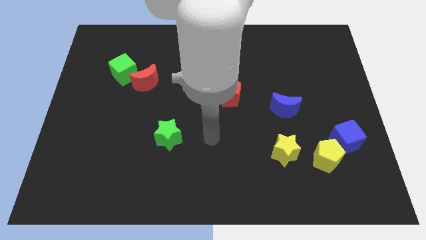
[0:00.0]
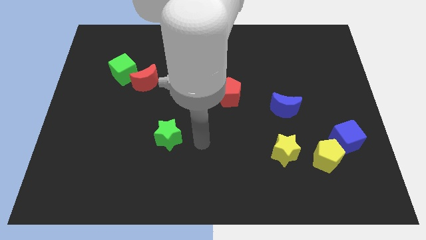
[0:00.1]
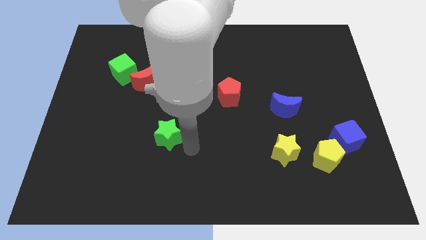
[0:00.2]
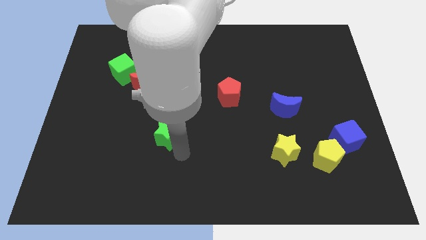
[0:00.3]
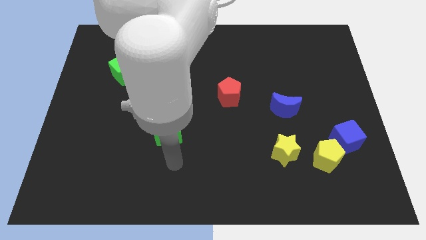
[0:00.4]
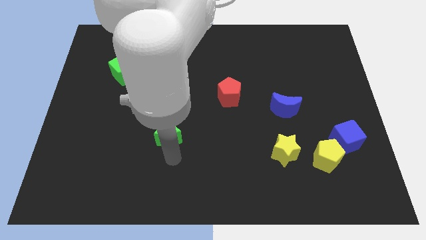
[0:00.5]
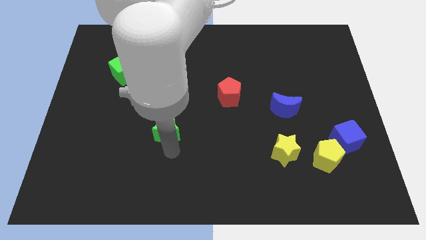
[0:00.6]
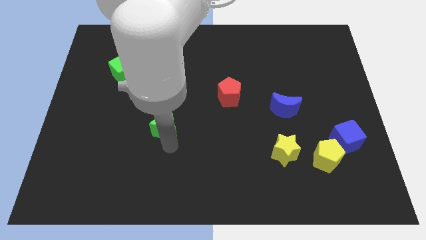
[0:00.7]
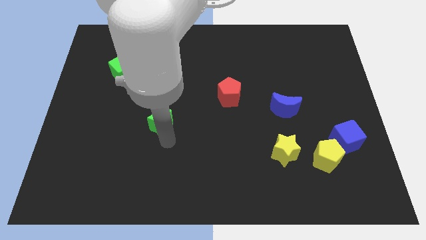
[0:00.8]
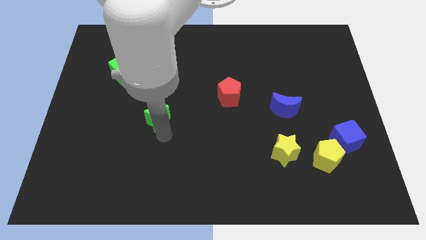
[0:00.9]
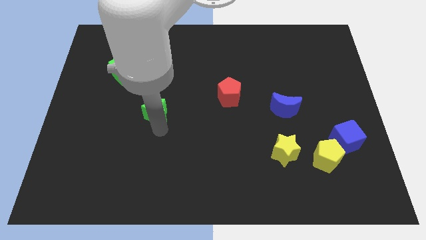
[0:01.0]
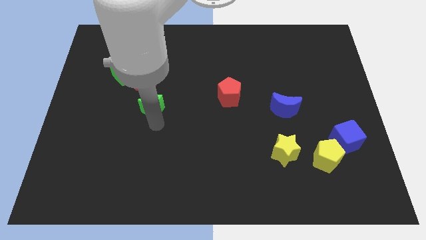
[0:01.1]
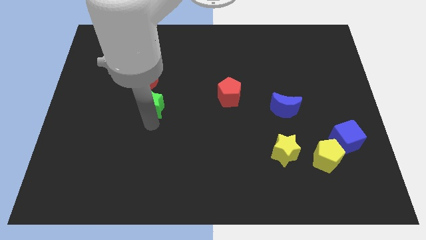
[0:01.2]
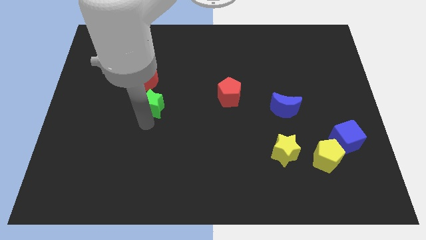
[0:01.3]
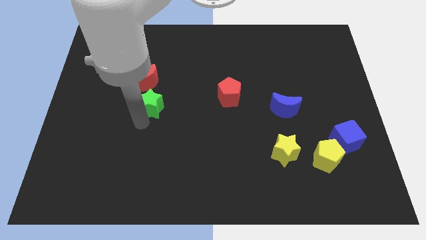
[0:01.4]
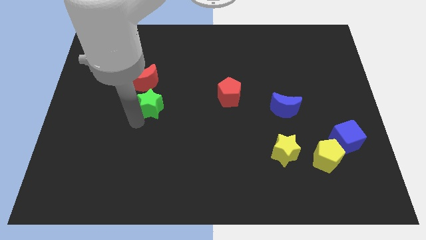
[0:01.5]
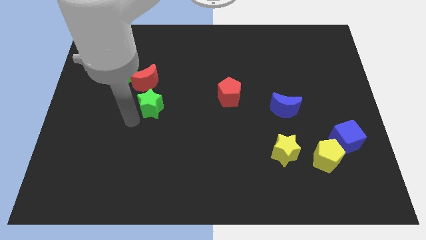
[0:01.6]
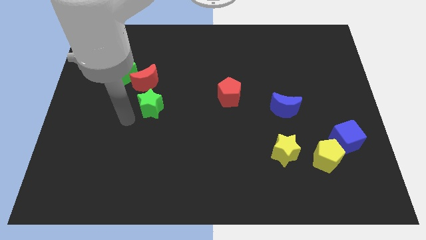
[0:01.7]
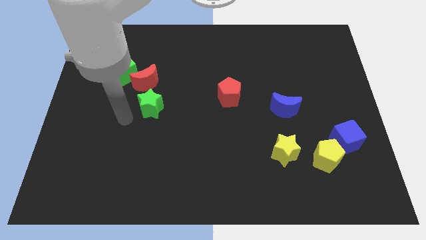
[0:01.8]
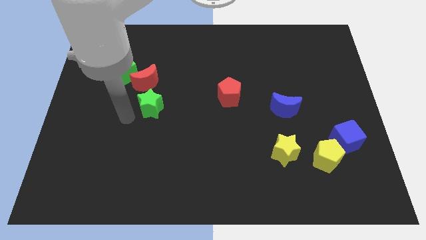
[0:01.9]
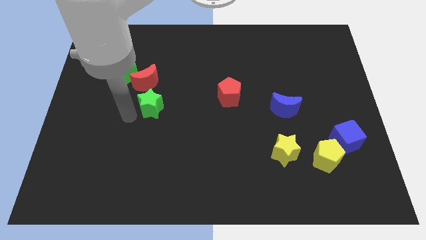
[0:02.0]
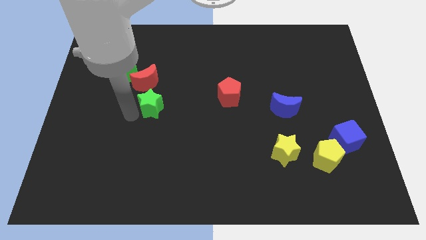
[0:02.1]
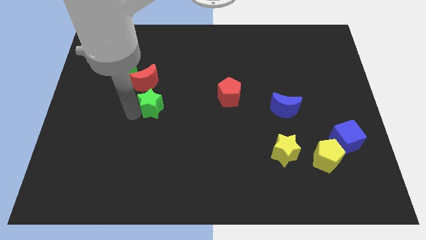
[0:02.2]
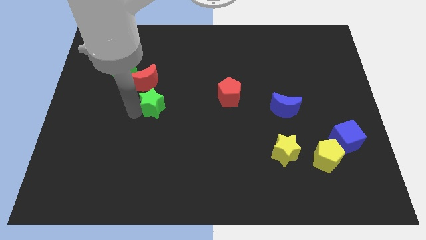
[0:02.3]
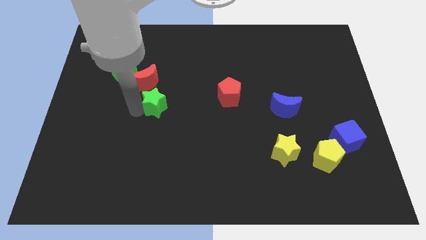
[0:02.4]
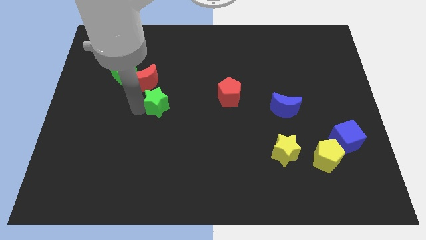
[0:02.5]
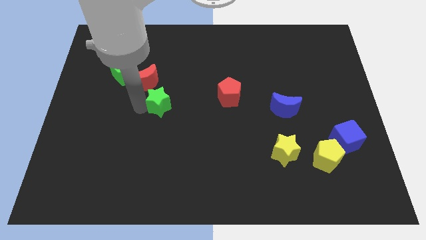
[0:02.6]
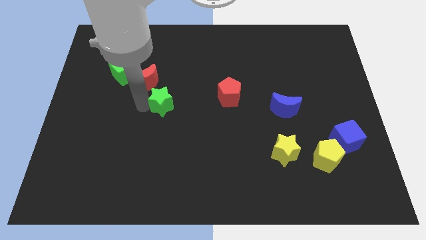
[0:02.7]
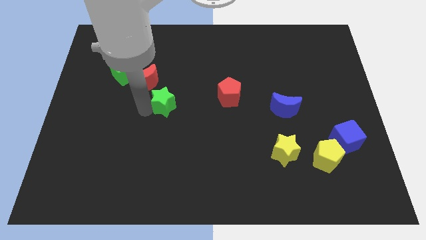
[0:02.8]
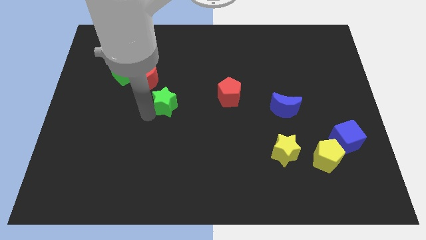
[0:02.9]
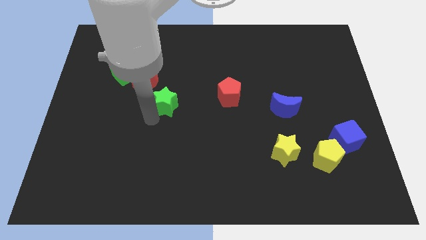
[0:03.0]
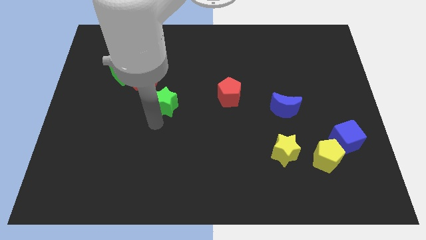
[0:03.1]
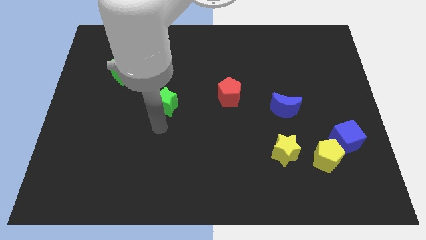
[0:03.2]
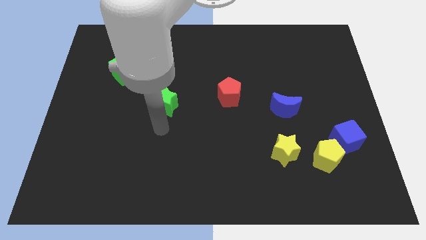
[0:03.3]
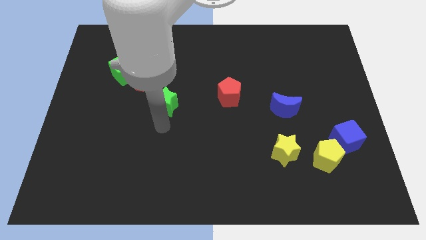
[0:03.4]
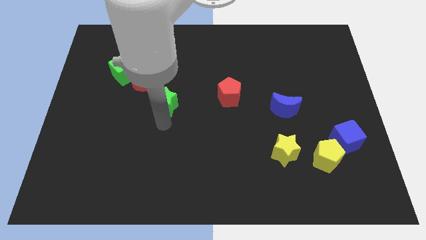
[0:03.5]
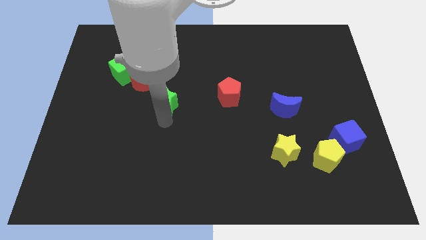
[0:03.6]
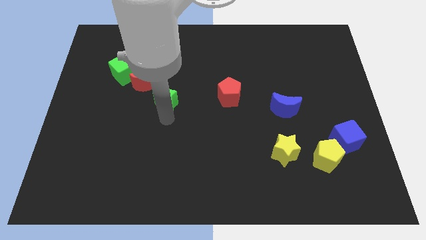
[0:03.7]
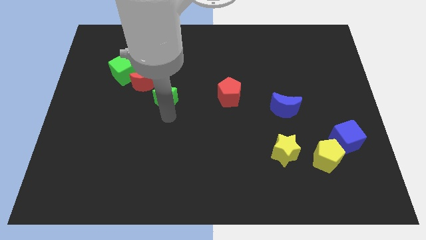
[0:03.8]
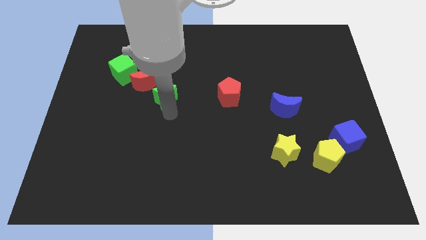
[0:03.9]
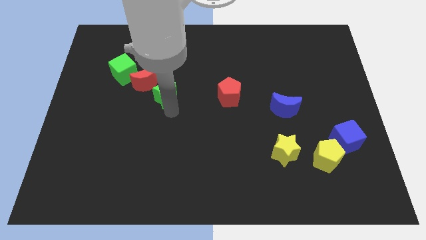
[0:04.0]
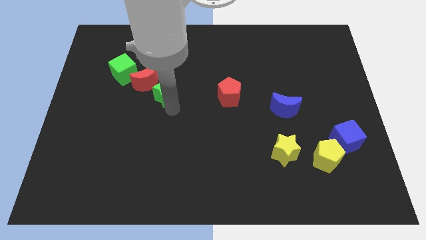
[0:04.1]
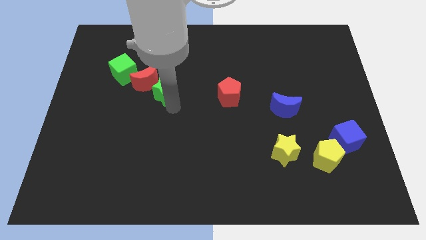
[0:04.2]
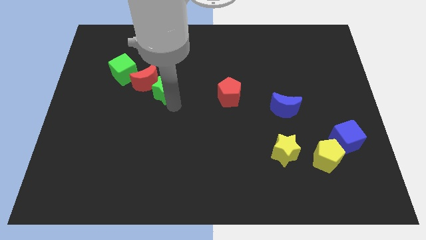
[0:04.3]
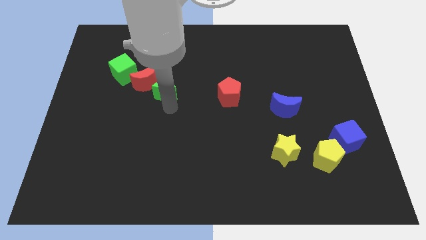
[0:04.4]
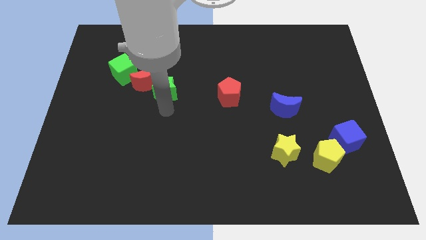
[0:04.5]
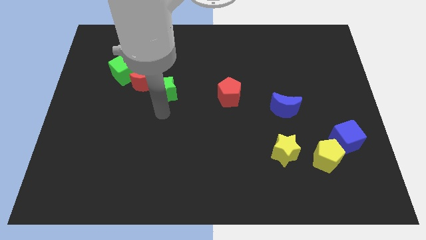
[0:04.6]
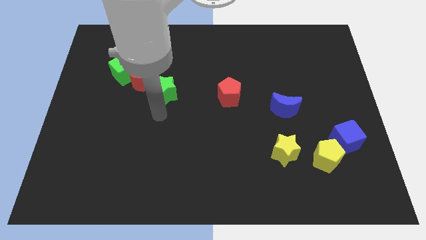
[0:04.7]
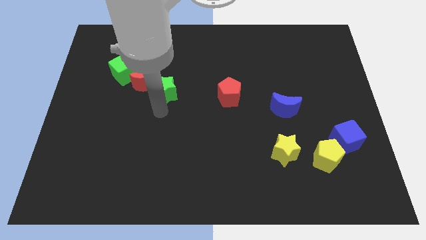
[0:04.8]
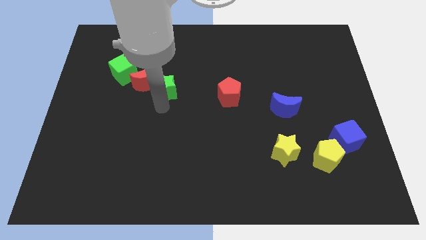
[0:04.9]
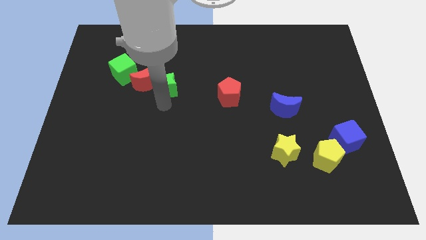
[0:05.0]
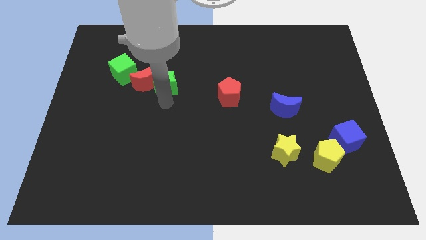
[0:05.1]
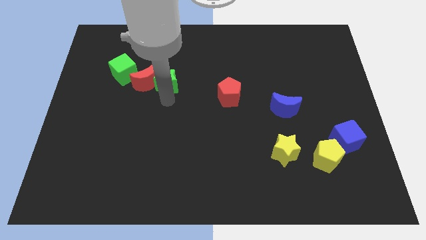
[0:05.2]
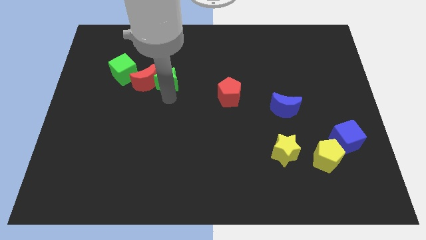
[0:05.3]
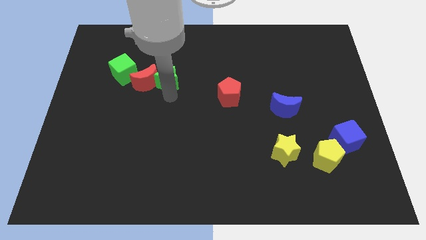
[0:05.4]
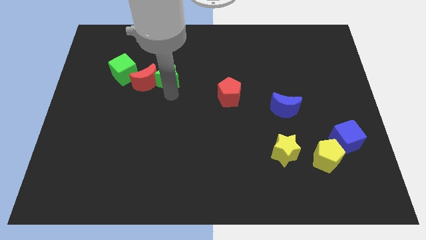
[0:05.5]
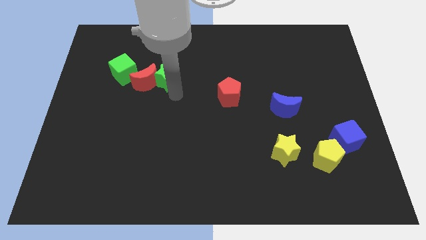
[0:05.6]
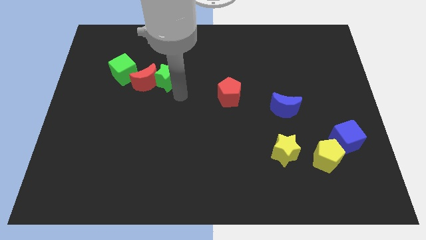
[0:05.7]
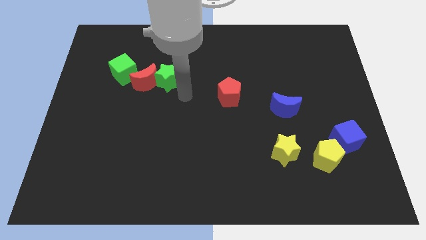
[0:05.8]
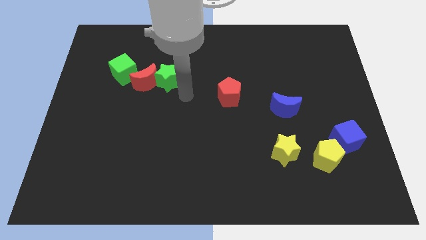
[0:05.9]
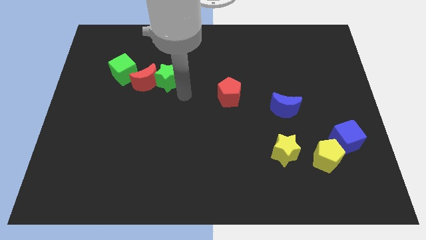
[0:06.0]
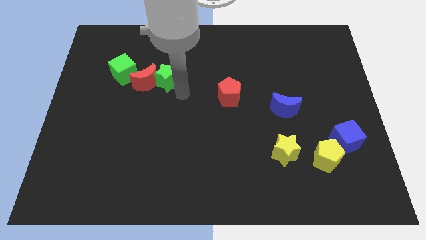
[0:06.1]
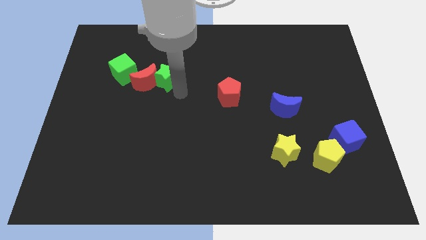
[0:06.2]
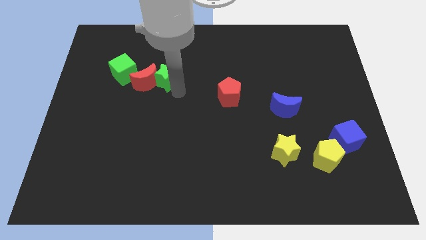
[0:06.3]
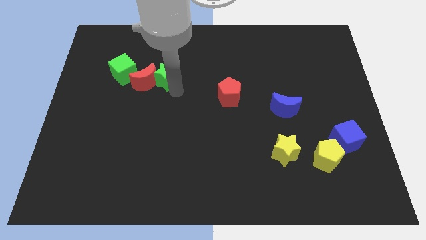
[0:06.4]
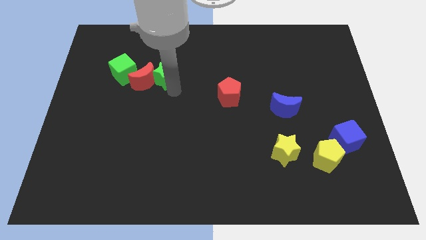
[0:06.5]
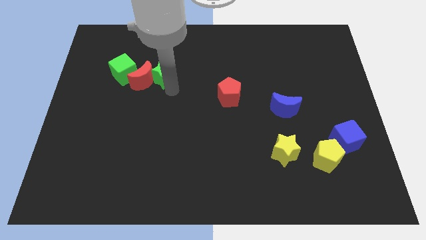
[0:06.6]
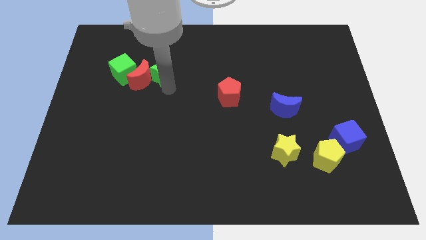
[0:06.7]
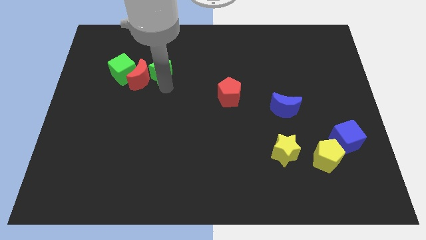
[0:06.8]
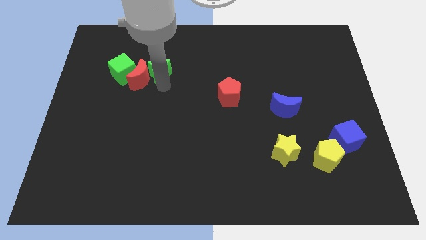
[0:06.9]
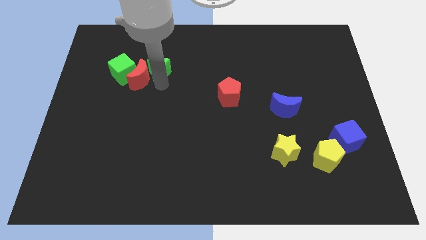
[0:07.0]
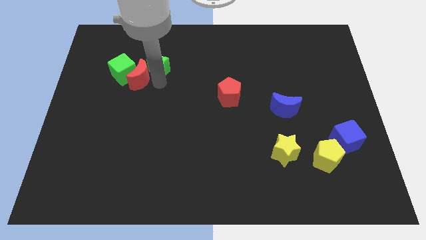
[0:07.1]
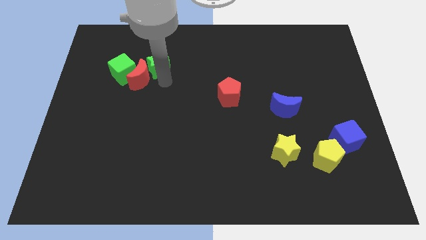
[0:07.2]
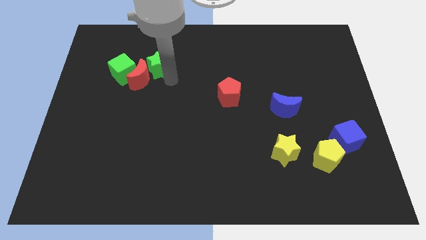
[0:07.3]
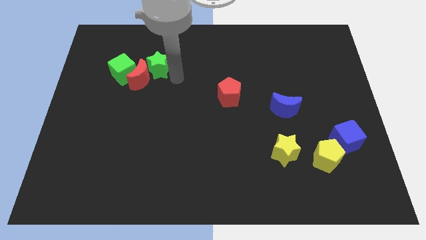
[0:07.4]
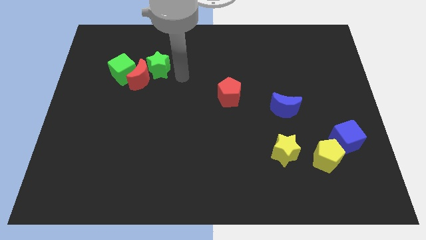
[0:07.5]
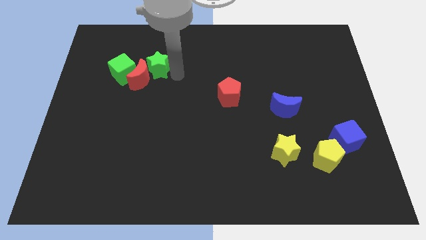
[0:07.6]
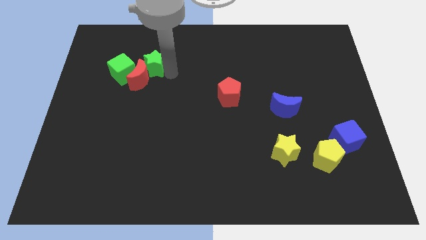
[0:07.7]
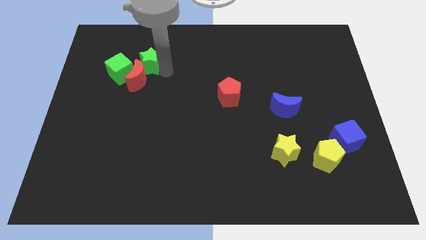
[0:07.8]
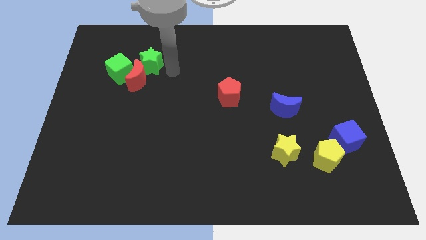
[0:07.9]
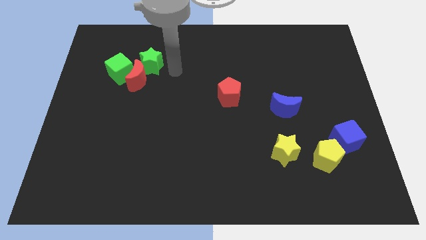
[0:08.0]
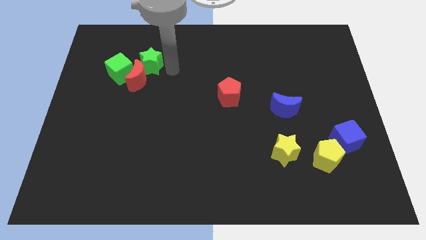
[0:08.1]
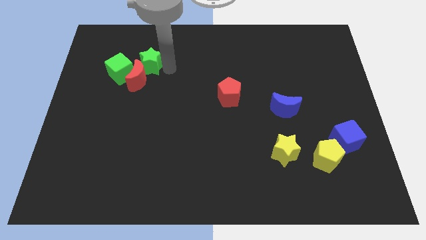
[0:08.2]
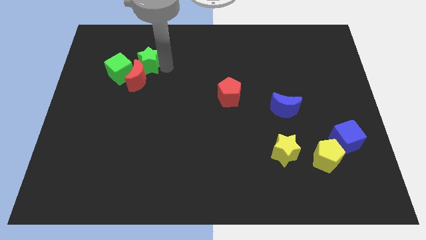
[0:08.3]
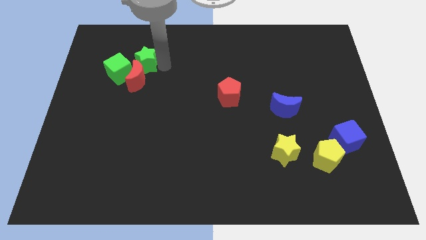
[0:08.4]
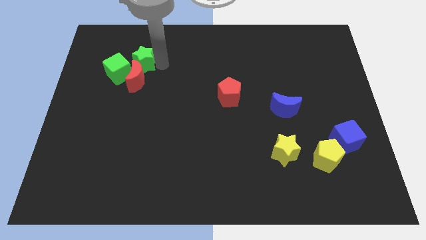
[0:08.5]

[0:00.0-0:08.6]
put the green star to the top left of the red moon
